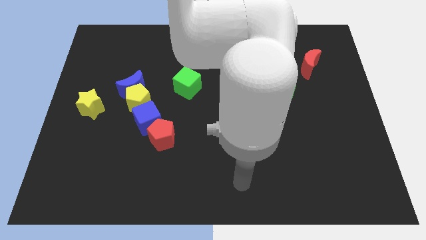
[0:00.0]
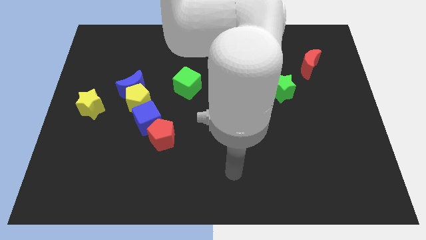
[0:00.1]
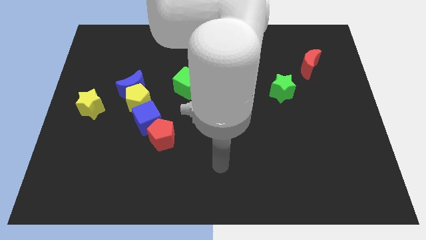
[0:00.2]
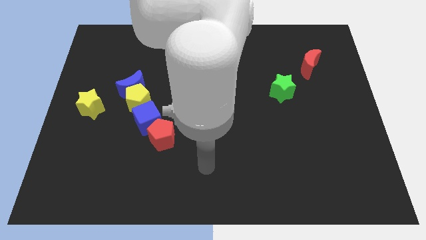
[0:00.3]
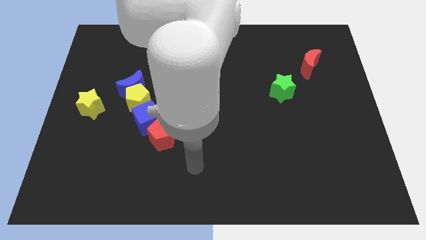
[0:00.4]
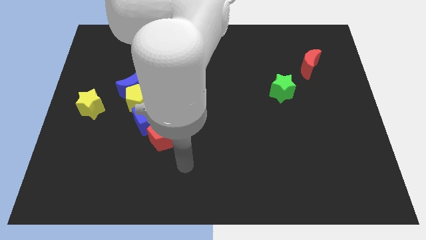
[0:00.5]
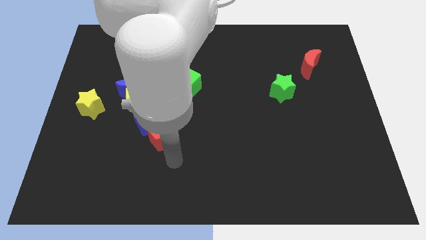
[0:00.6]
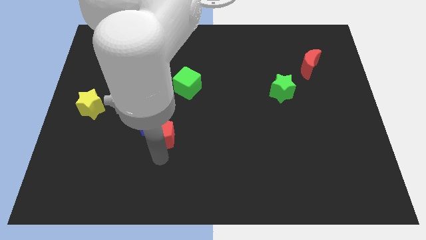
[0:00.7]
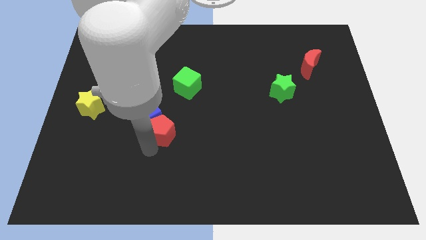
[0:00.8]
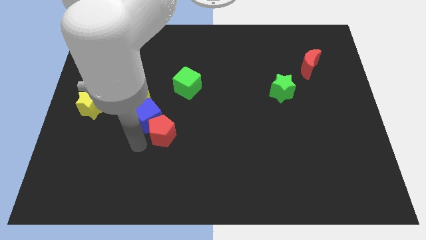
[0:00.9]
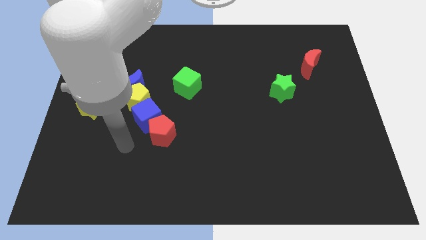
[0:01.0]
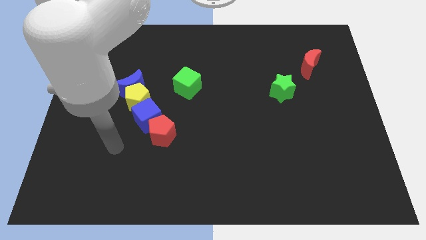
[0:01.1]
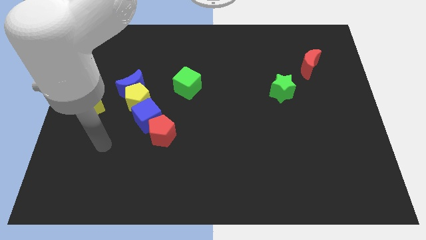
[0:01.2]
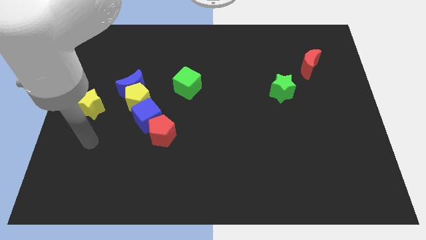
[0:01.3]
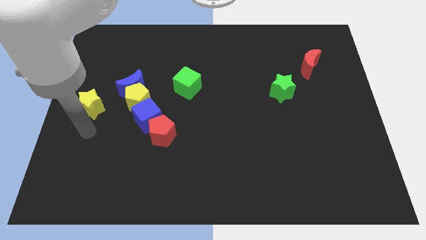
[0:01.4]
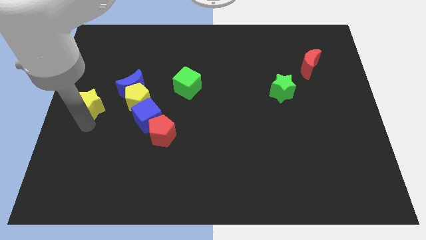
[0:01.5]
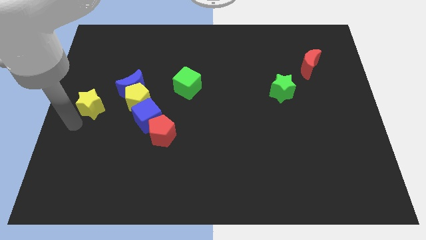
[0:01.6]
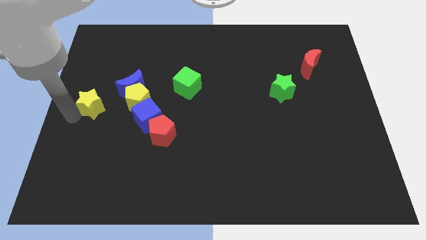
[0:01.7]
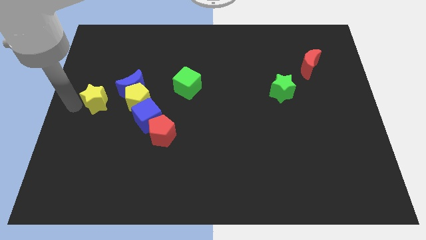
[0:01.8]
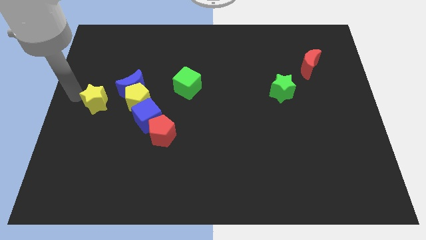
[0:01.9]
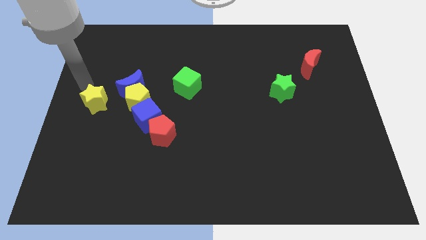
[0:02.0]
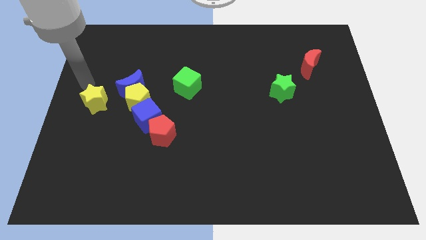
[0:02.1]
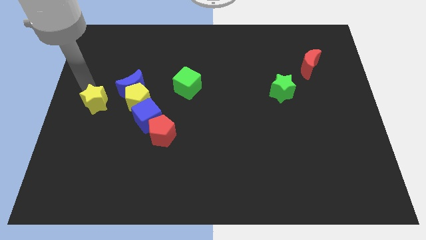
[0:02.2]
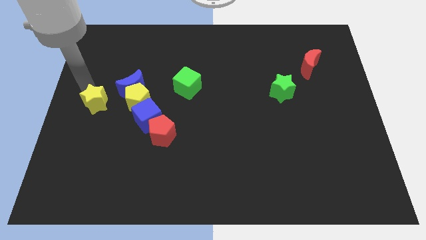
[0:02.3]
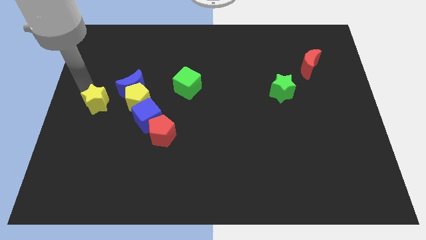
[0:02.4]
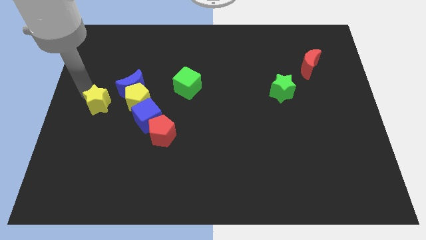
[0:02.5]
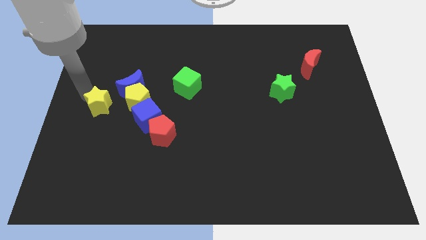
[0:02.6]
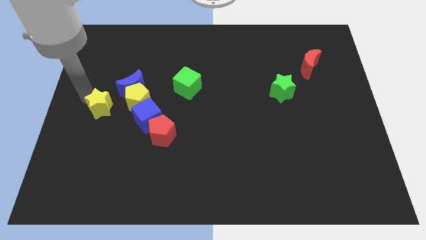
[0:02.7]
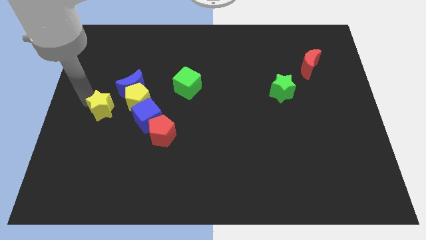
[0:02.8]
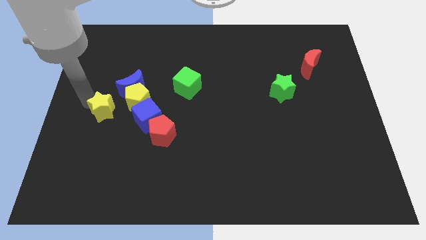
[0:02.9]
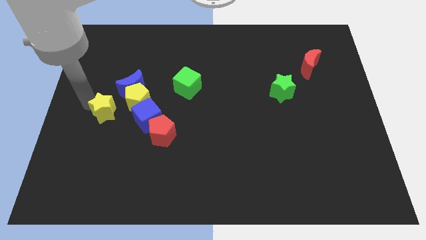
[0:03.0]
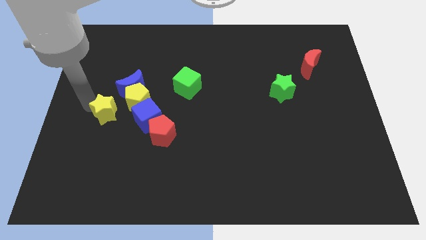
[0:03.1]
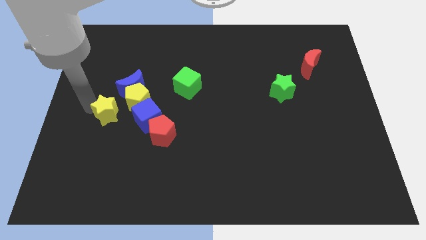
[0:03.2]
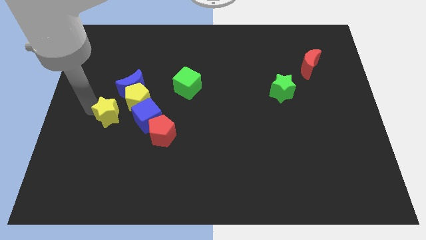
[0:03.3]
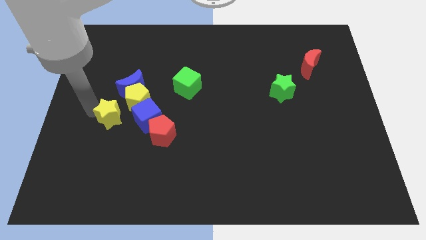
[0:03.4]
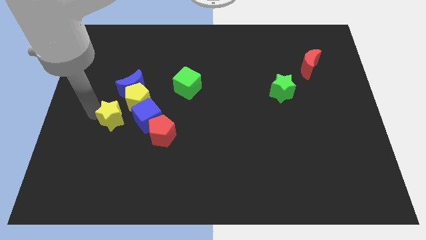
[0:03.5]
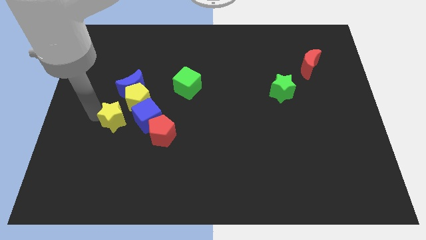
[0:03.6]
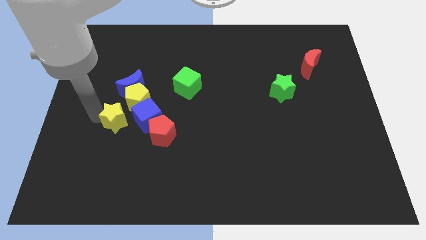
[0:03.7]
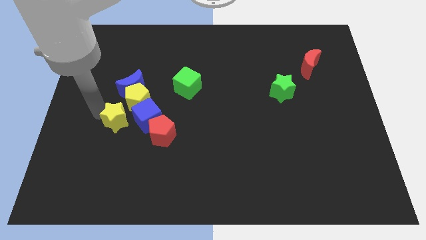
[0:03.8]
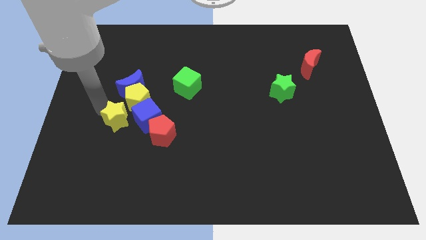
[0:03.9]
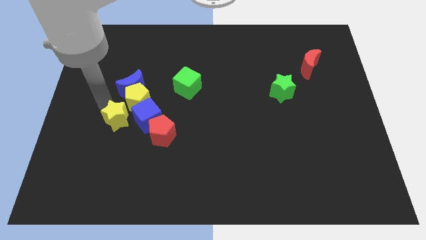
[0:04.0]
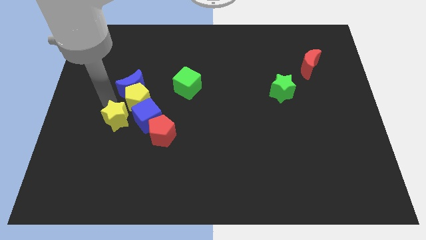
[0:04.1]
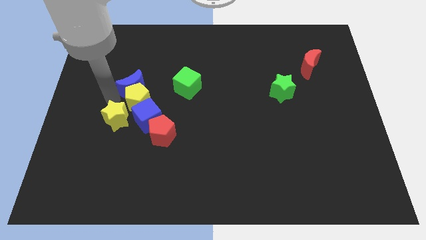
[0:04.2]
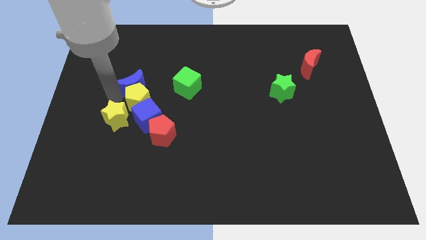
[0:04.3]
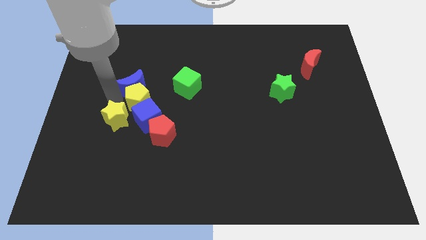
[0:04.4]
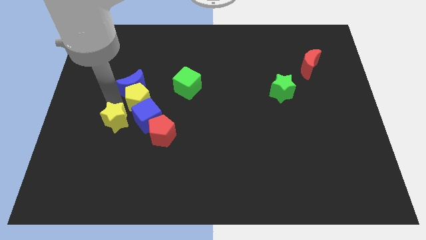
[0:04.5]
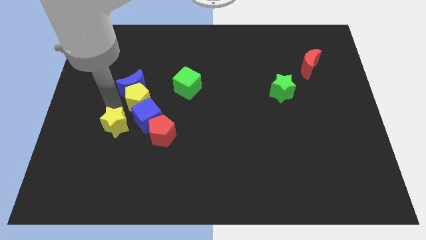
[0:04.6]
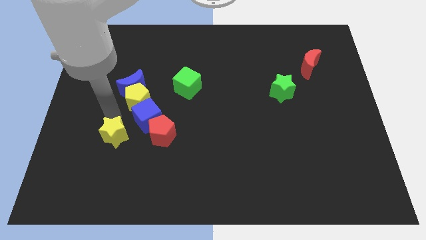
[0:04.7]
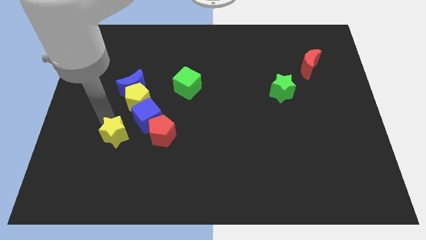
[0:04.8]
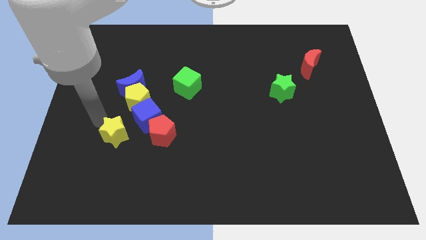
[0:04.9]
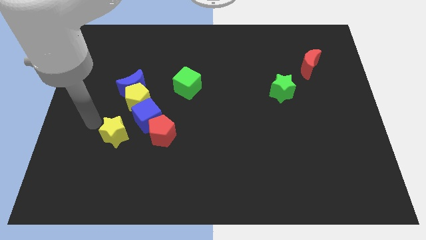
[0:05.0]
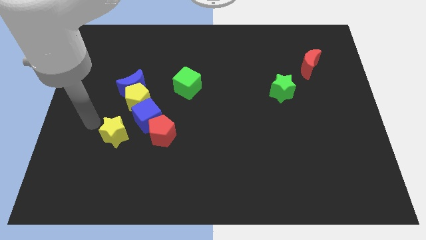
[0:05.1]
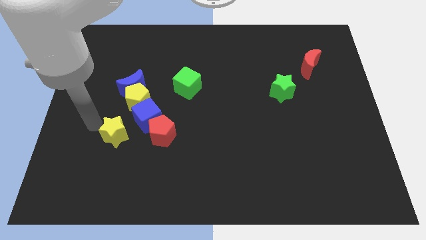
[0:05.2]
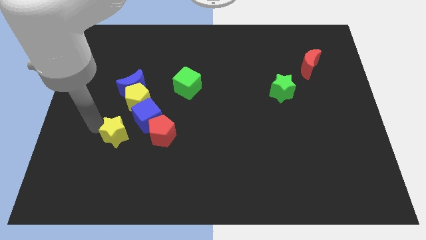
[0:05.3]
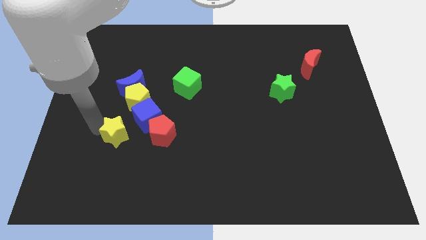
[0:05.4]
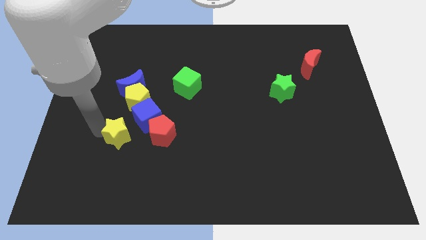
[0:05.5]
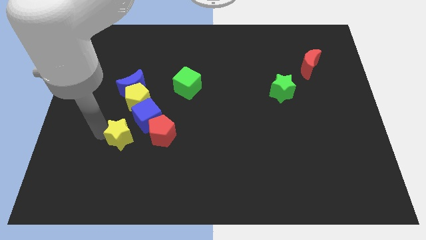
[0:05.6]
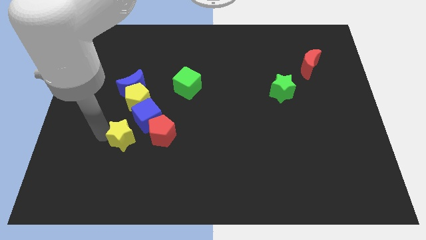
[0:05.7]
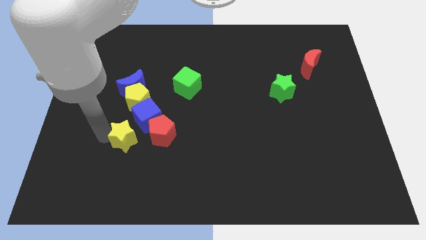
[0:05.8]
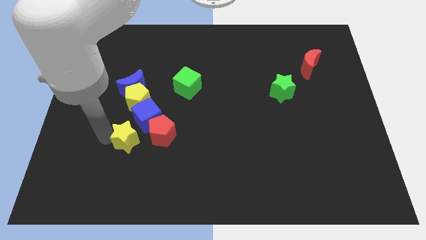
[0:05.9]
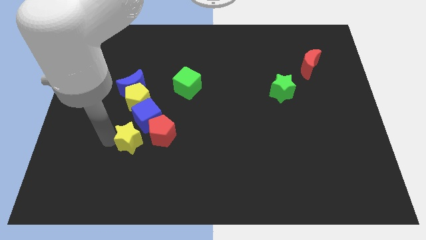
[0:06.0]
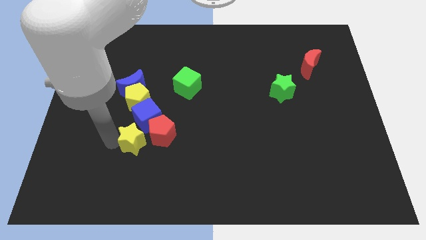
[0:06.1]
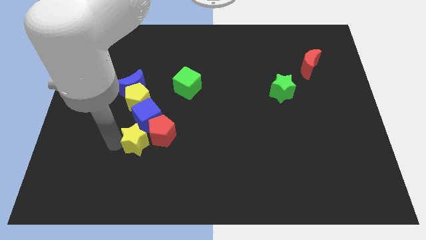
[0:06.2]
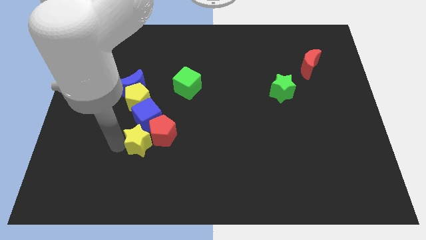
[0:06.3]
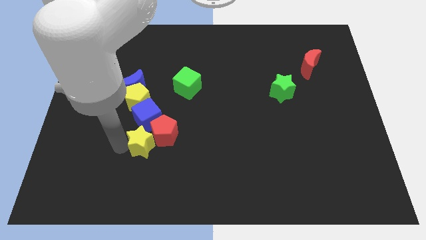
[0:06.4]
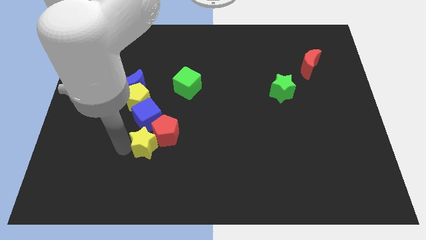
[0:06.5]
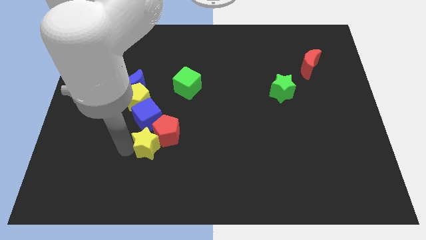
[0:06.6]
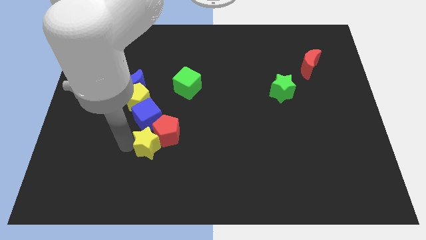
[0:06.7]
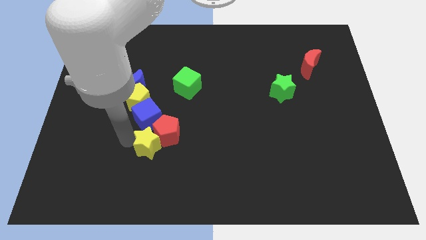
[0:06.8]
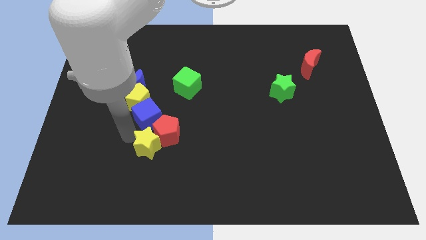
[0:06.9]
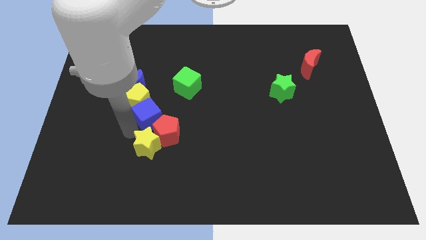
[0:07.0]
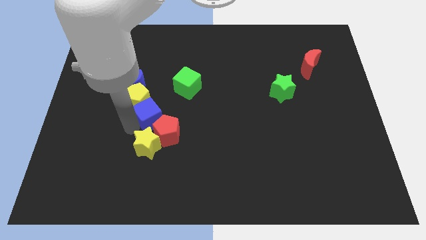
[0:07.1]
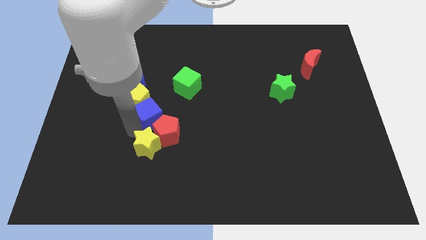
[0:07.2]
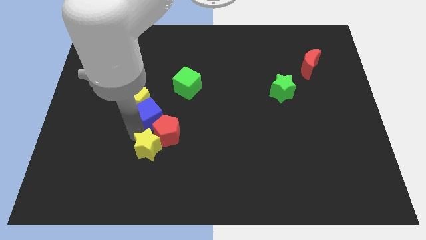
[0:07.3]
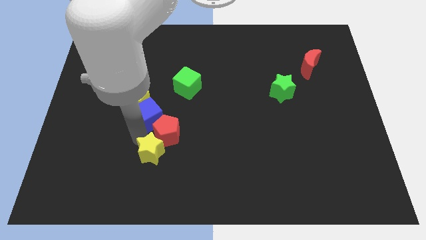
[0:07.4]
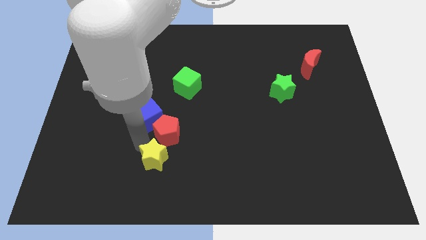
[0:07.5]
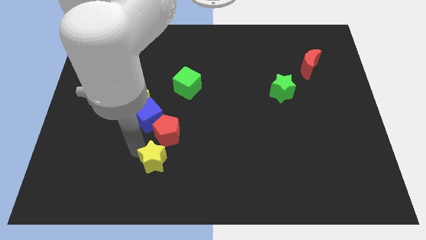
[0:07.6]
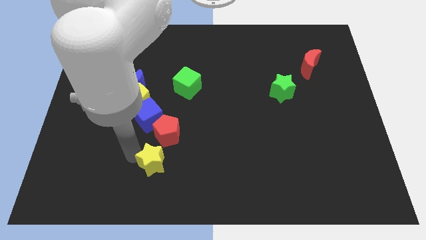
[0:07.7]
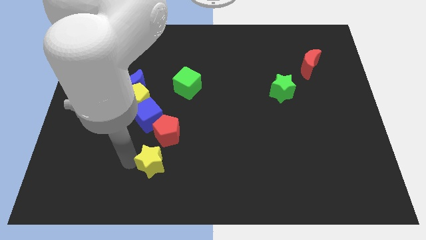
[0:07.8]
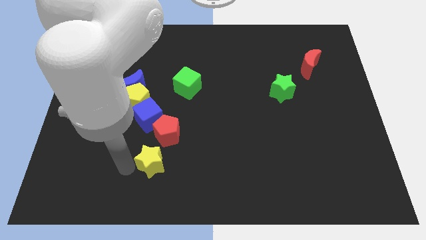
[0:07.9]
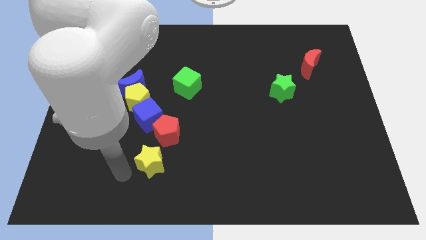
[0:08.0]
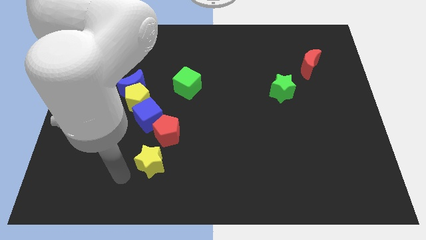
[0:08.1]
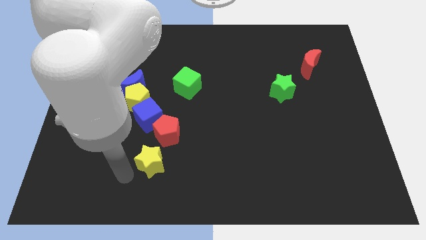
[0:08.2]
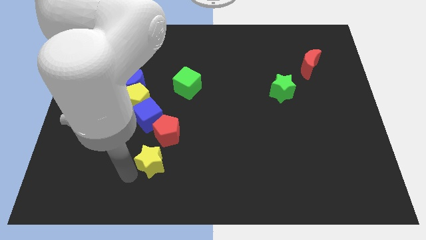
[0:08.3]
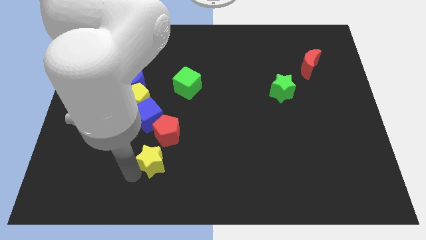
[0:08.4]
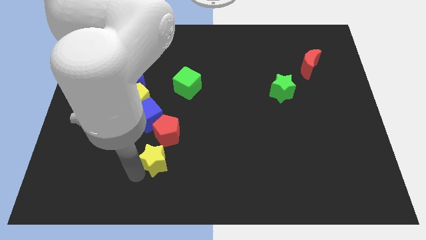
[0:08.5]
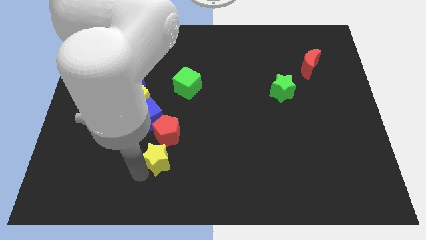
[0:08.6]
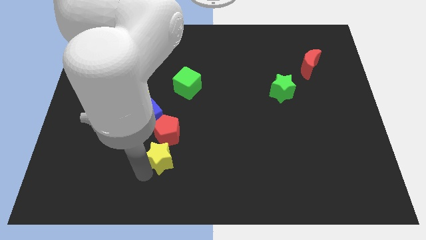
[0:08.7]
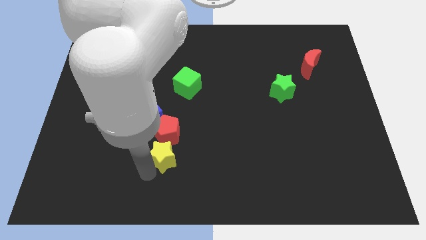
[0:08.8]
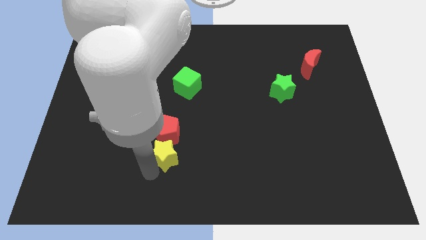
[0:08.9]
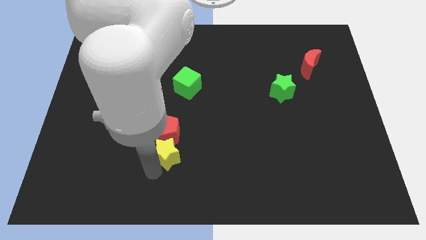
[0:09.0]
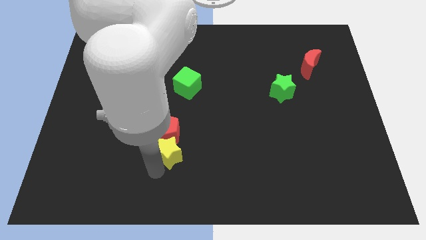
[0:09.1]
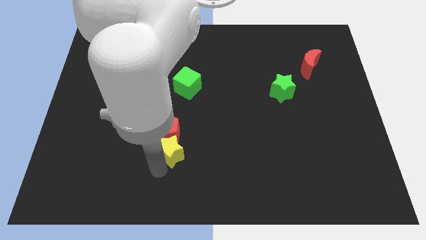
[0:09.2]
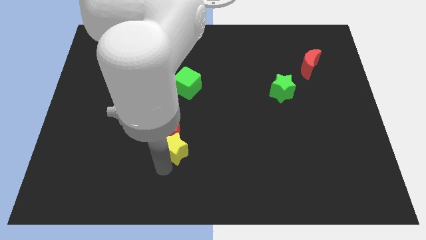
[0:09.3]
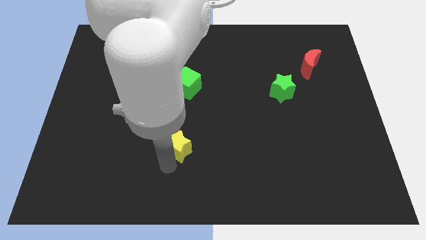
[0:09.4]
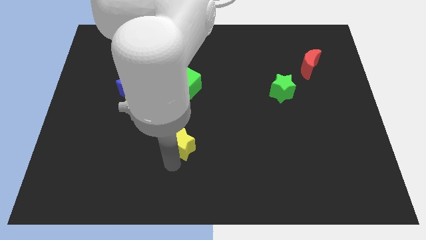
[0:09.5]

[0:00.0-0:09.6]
put the yellow star to the right side of the red pentagon
